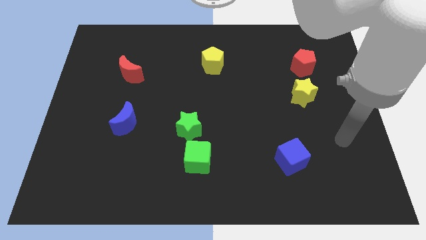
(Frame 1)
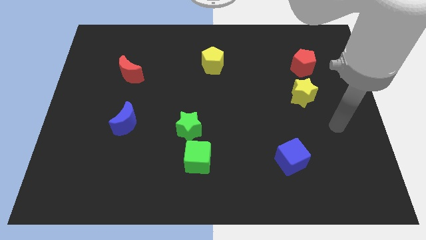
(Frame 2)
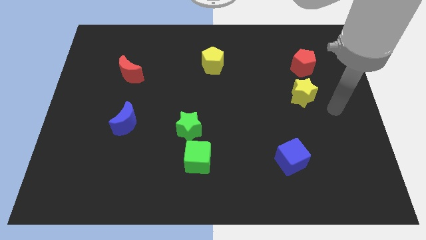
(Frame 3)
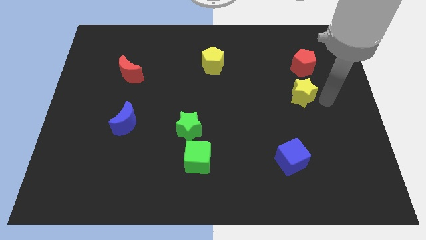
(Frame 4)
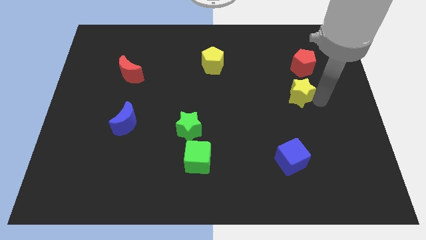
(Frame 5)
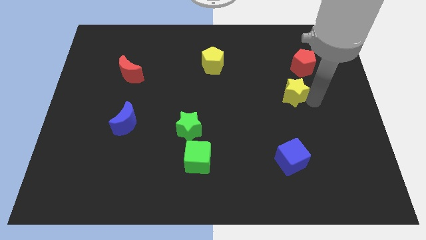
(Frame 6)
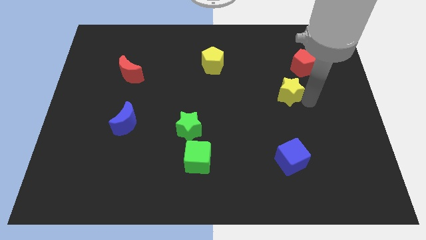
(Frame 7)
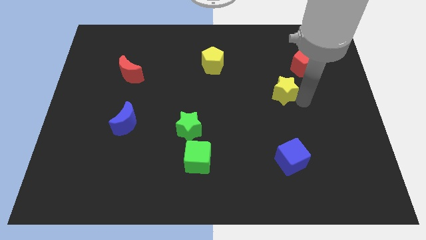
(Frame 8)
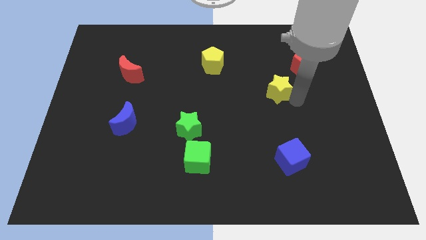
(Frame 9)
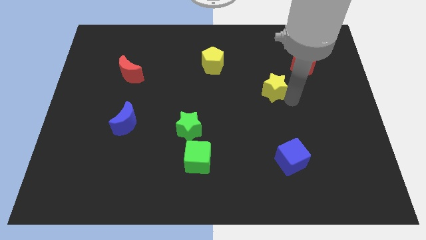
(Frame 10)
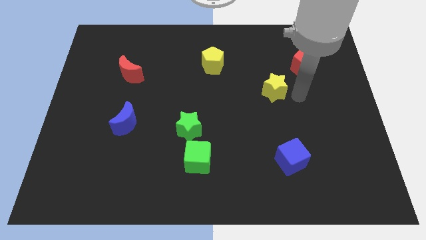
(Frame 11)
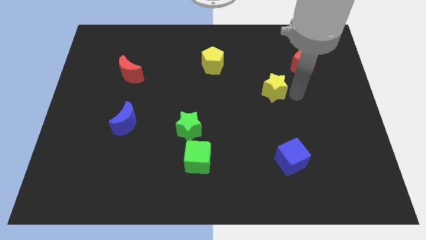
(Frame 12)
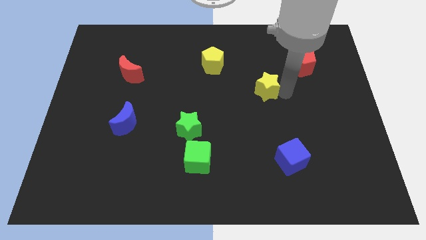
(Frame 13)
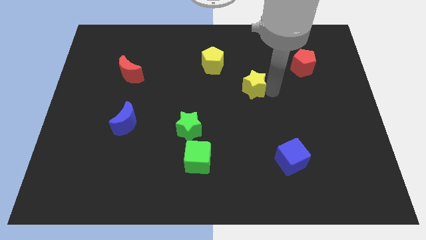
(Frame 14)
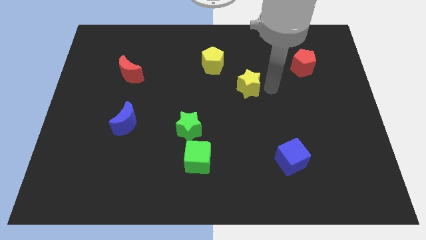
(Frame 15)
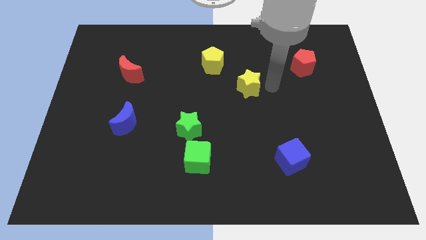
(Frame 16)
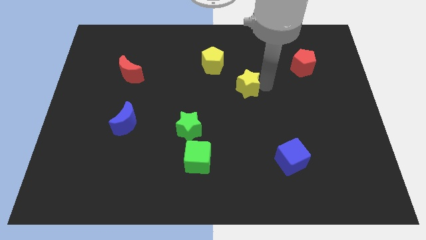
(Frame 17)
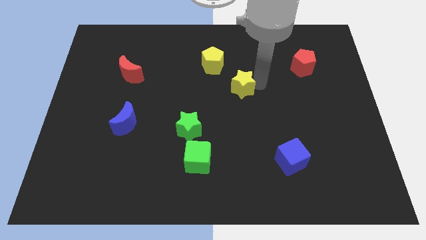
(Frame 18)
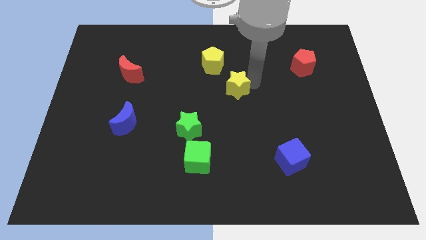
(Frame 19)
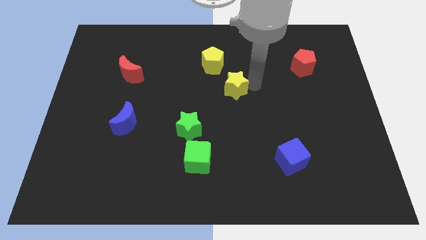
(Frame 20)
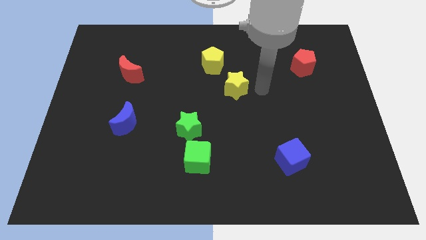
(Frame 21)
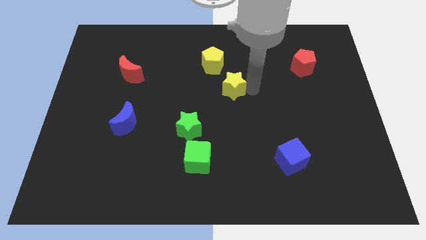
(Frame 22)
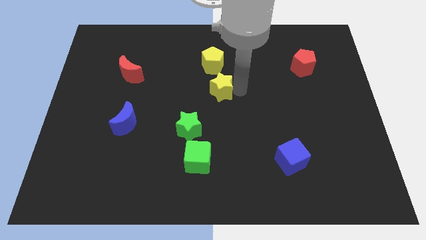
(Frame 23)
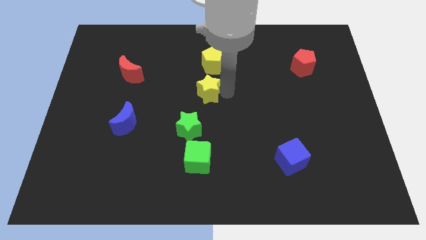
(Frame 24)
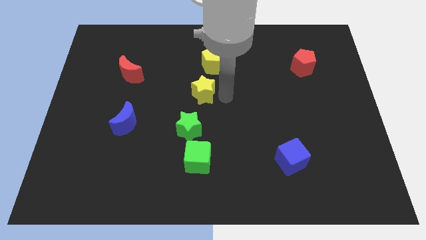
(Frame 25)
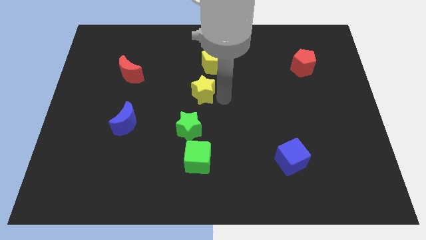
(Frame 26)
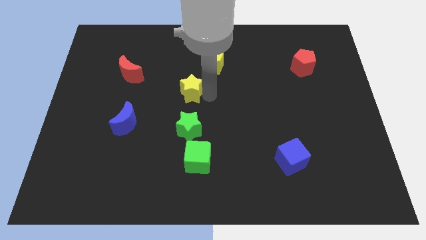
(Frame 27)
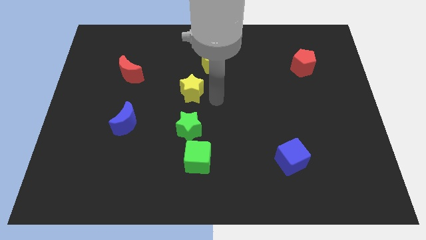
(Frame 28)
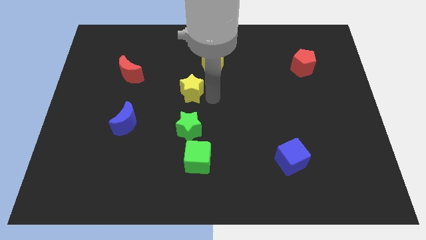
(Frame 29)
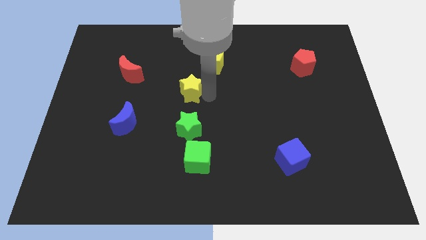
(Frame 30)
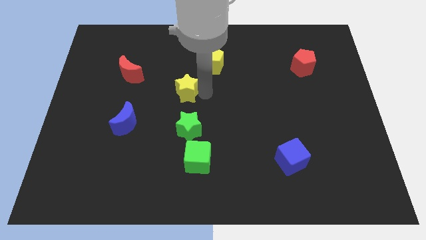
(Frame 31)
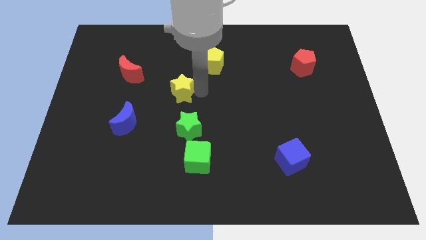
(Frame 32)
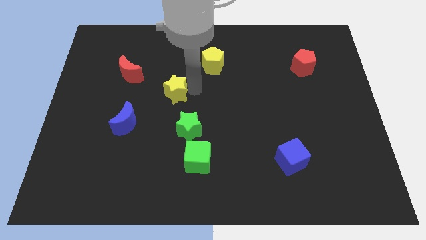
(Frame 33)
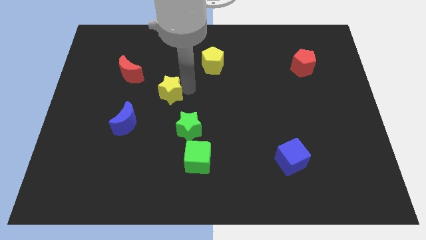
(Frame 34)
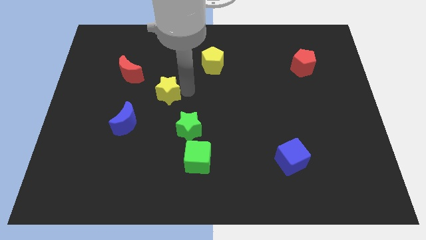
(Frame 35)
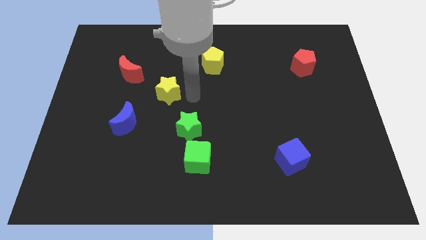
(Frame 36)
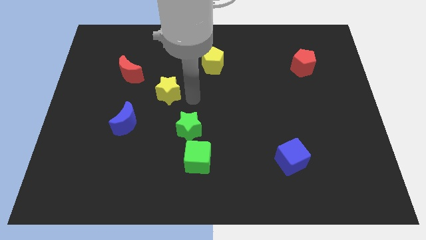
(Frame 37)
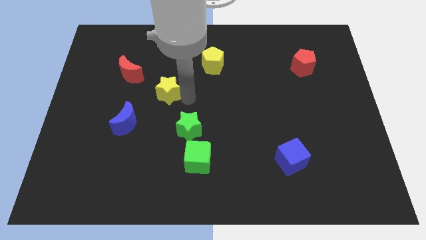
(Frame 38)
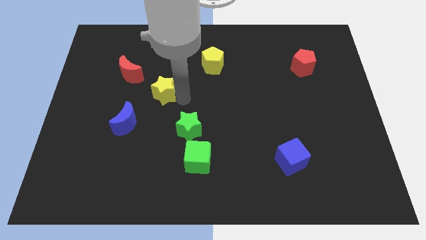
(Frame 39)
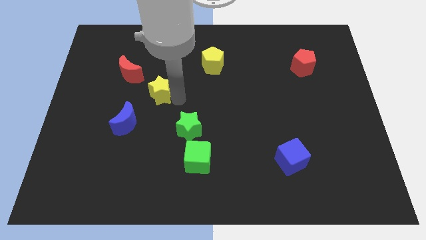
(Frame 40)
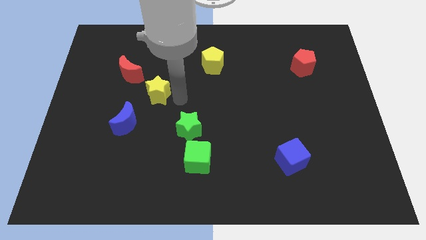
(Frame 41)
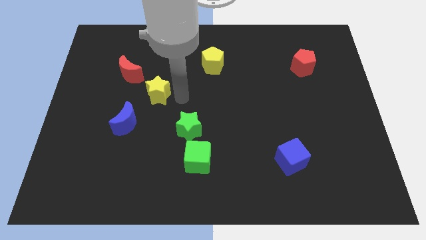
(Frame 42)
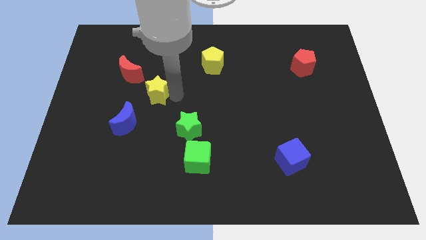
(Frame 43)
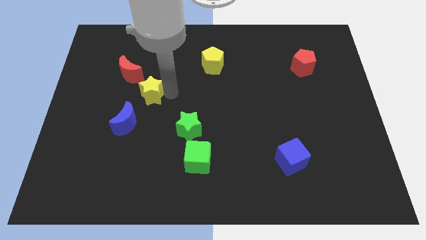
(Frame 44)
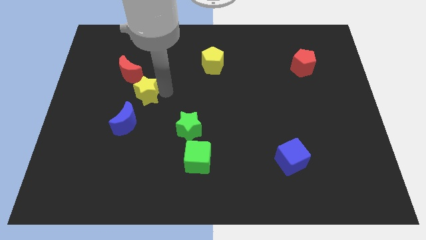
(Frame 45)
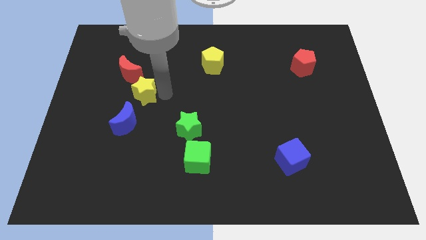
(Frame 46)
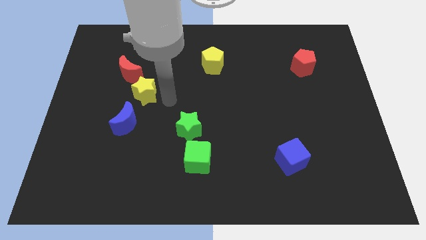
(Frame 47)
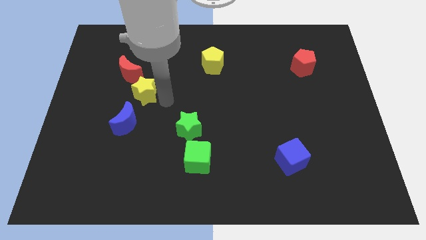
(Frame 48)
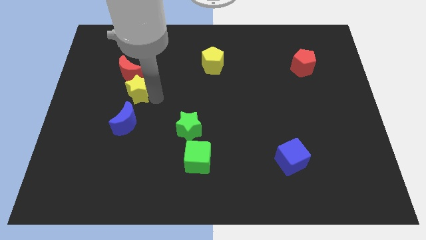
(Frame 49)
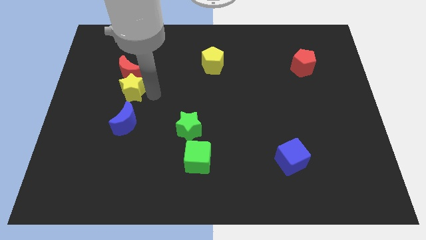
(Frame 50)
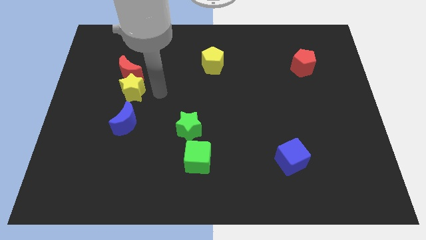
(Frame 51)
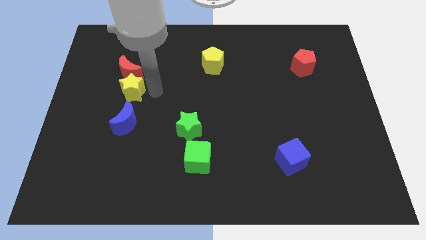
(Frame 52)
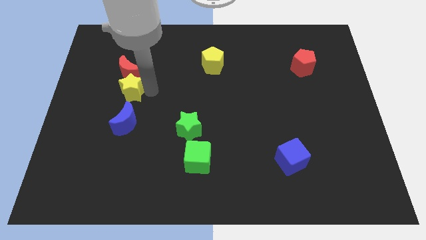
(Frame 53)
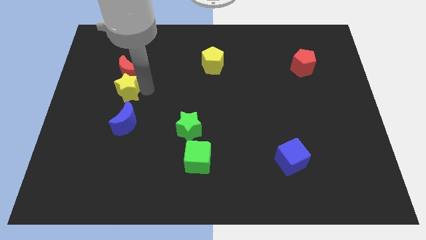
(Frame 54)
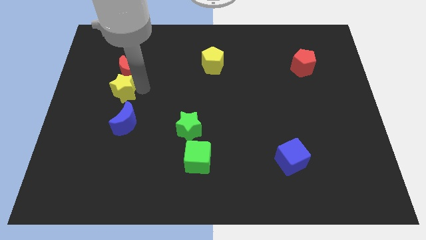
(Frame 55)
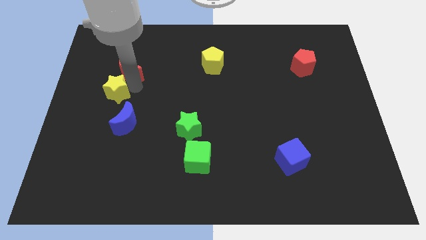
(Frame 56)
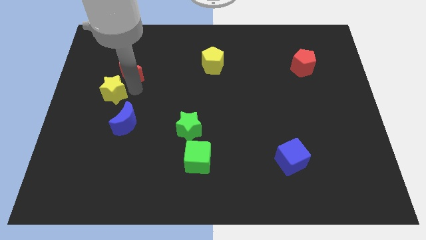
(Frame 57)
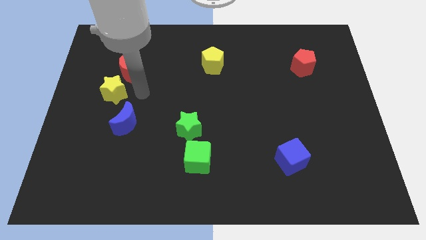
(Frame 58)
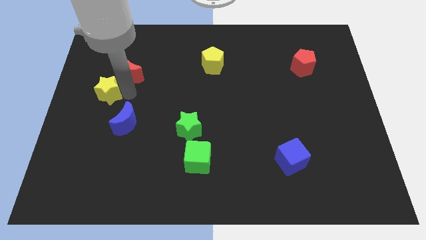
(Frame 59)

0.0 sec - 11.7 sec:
put the yellow star to the left side of the board
